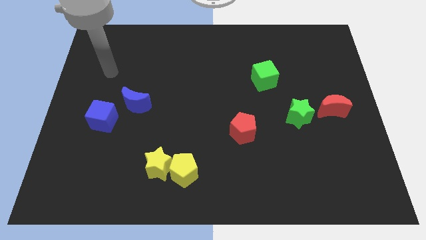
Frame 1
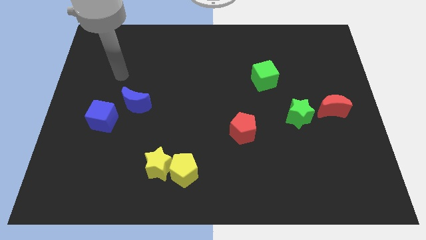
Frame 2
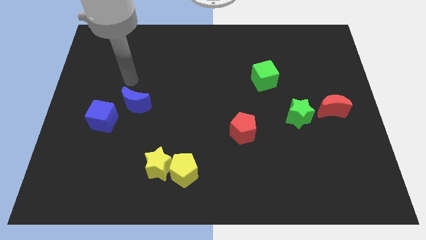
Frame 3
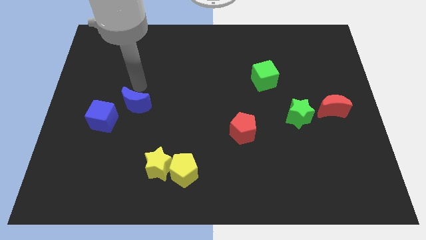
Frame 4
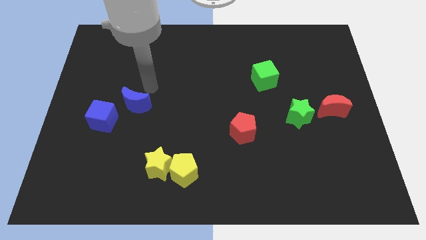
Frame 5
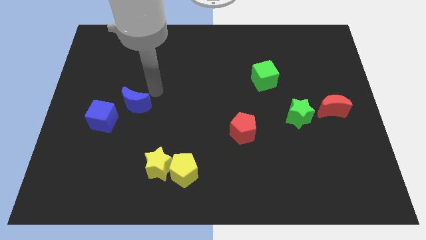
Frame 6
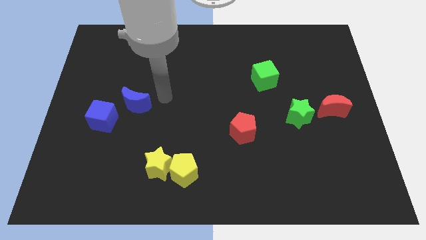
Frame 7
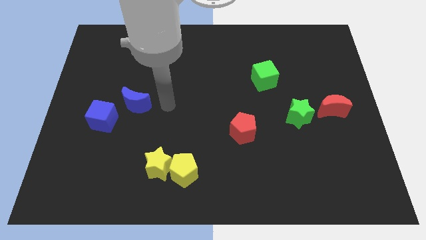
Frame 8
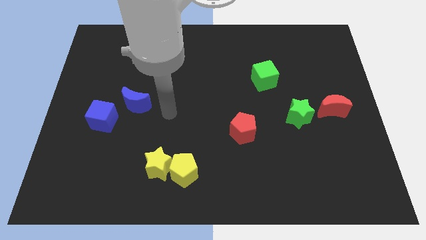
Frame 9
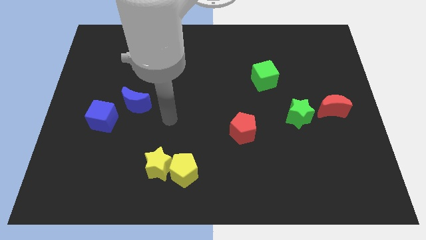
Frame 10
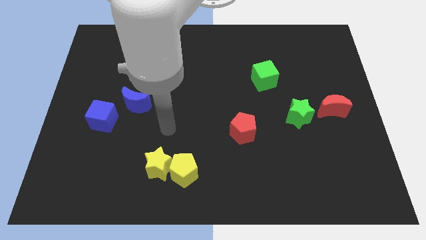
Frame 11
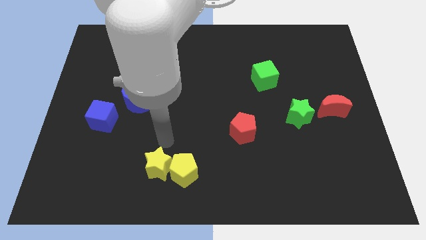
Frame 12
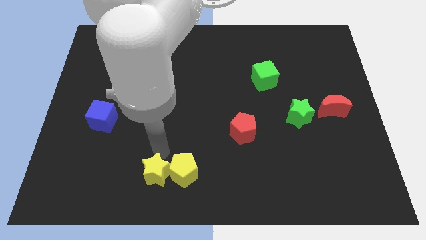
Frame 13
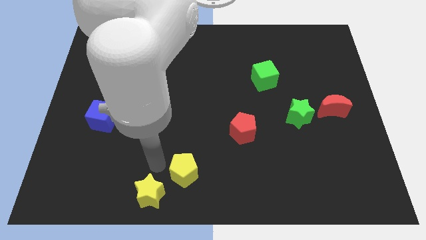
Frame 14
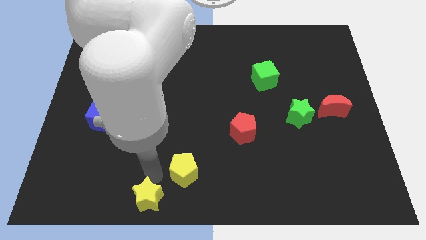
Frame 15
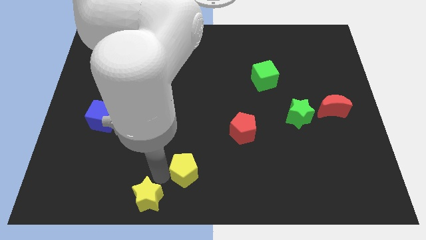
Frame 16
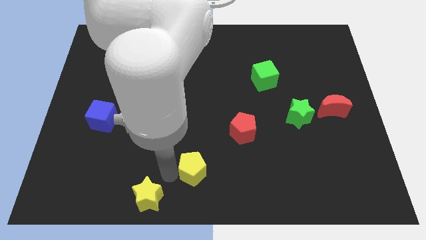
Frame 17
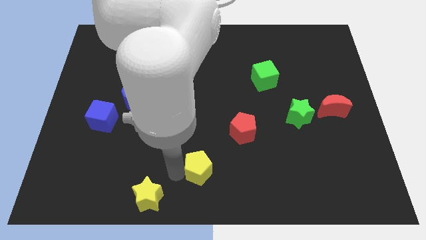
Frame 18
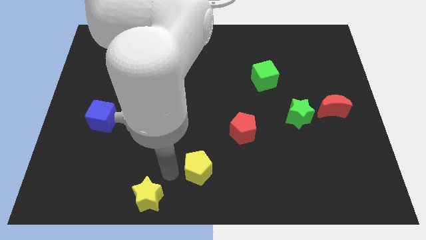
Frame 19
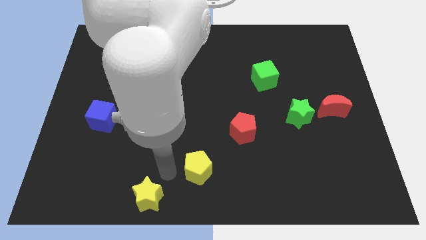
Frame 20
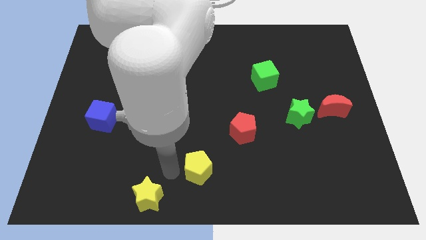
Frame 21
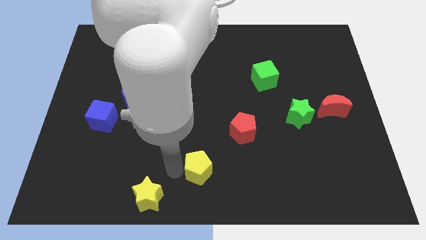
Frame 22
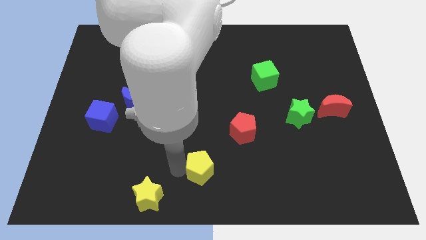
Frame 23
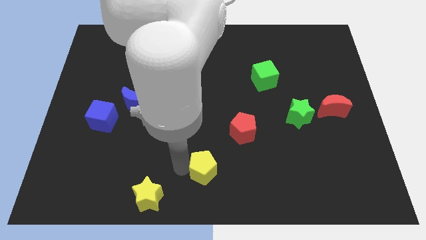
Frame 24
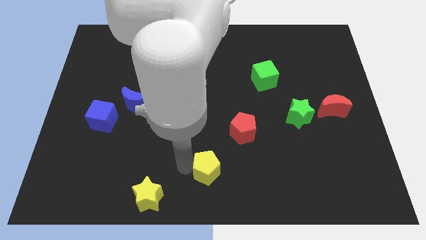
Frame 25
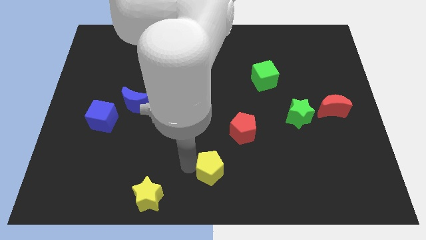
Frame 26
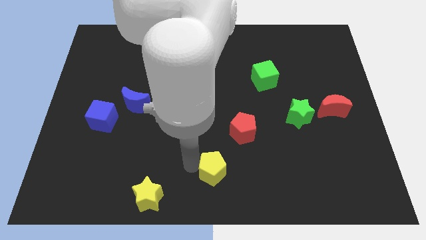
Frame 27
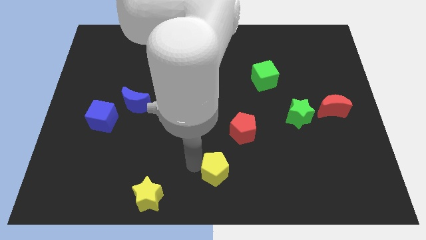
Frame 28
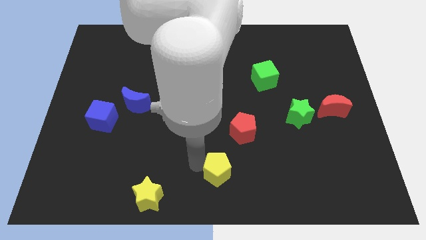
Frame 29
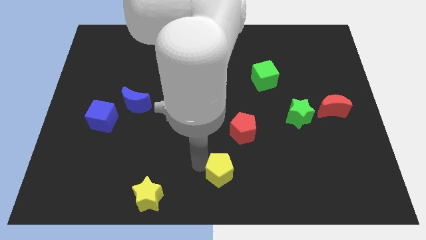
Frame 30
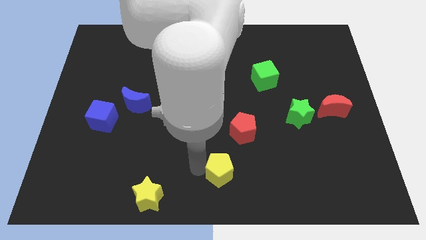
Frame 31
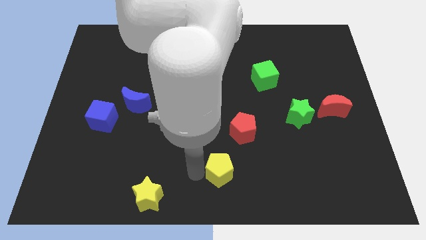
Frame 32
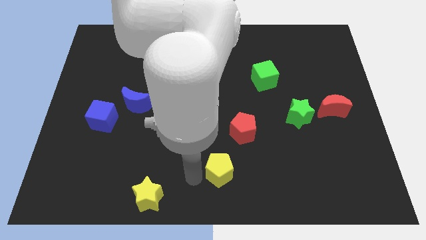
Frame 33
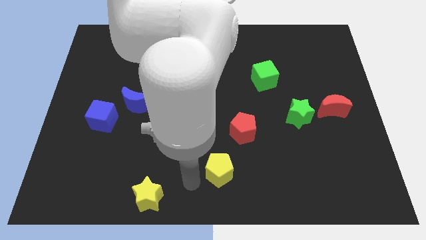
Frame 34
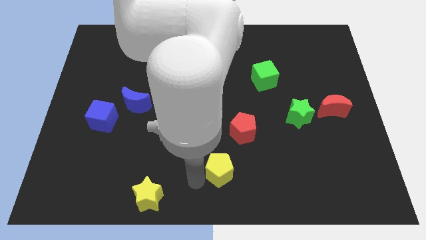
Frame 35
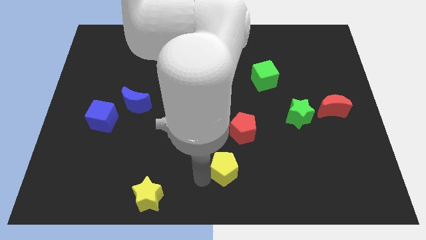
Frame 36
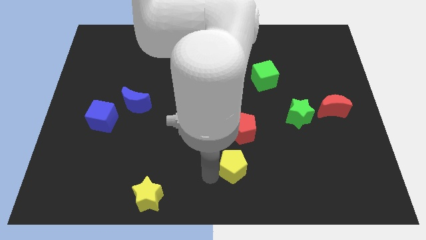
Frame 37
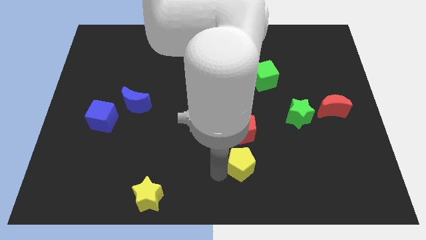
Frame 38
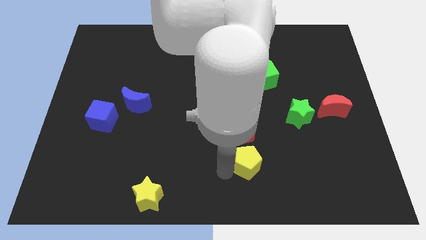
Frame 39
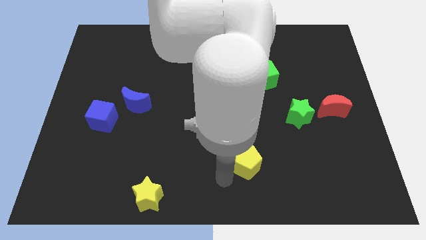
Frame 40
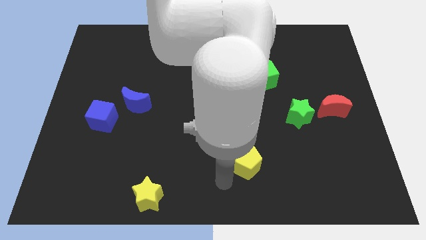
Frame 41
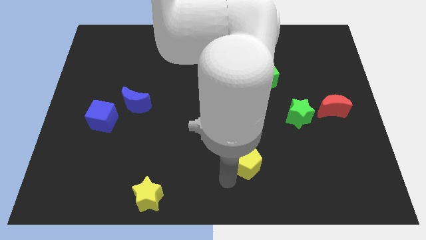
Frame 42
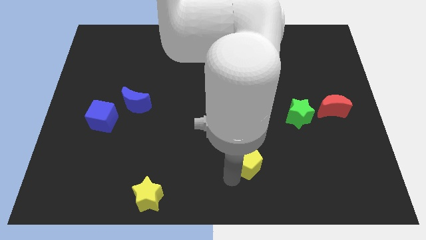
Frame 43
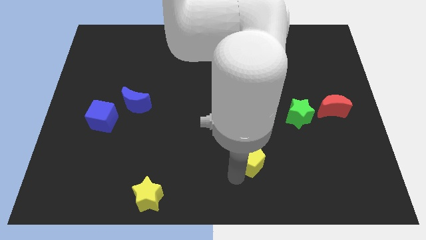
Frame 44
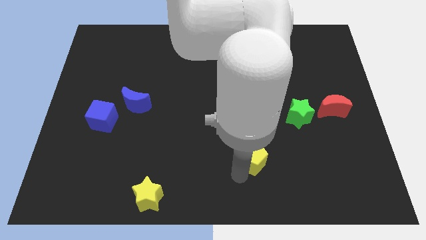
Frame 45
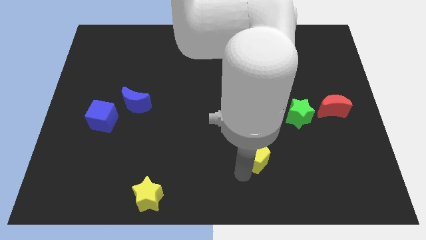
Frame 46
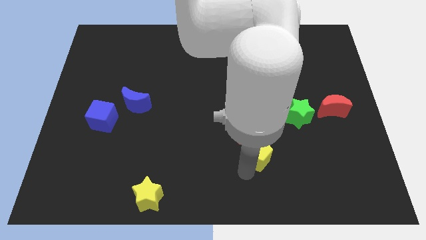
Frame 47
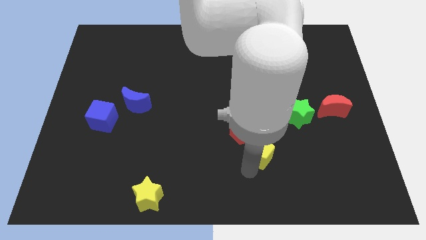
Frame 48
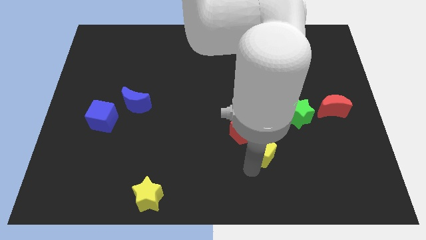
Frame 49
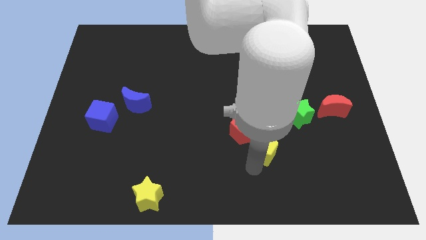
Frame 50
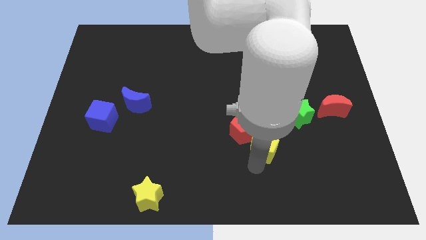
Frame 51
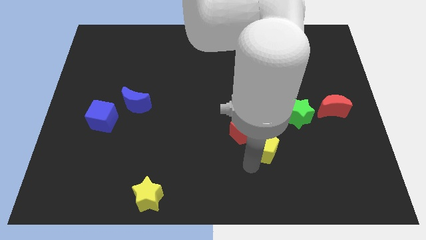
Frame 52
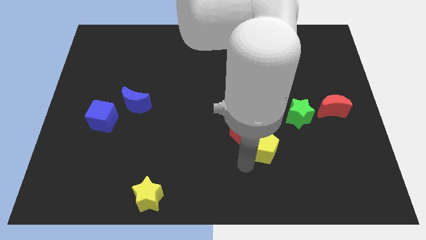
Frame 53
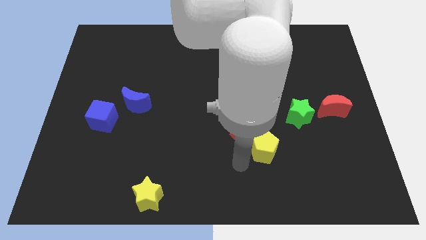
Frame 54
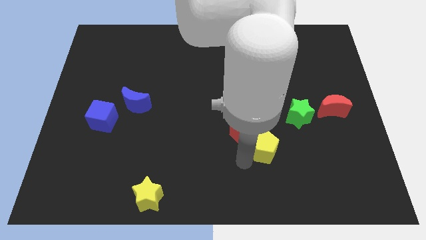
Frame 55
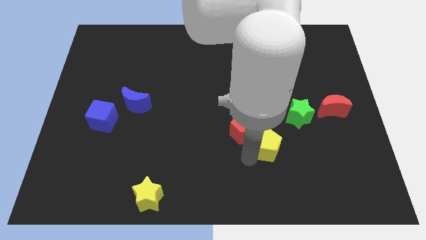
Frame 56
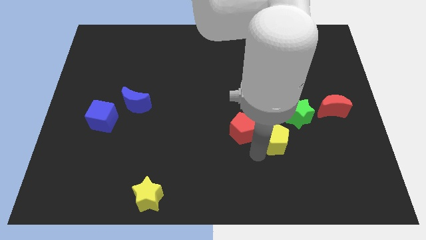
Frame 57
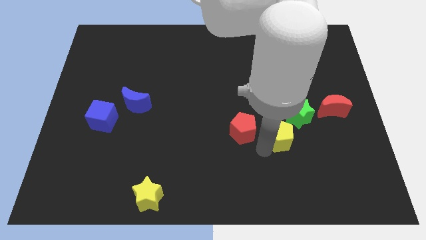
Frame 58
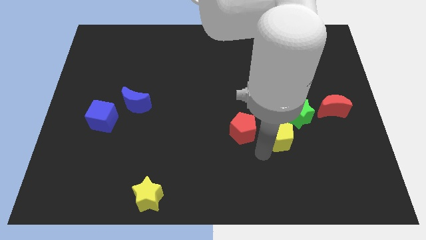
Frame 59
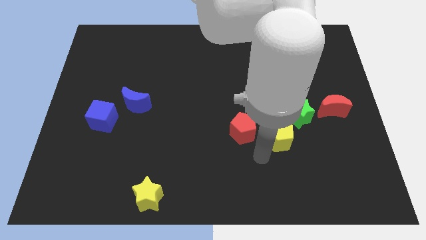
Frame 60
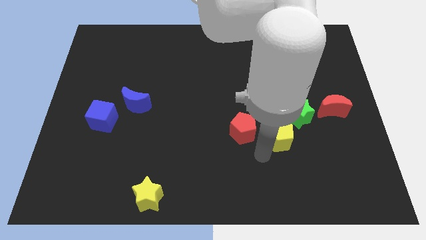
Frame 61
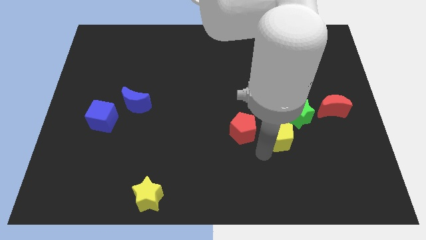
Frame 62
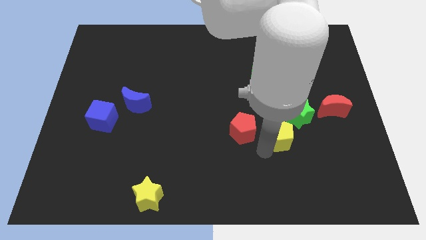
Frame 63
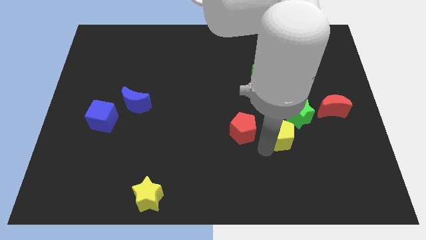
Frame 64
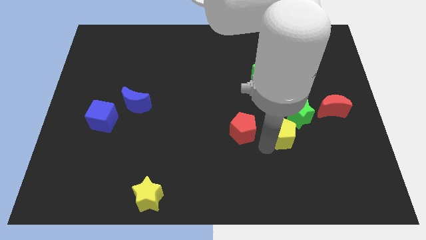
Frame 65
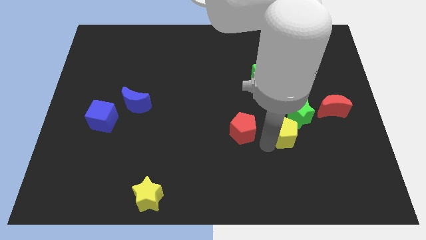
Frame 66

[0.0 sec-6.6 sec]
slide the yellow pentagon close to the green star

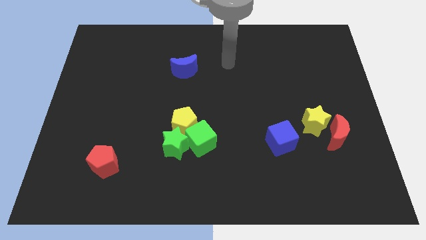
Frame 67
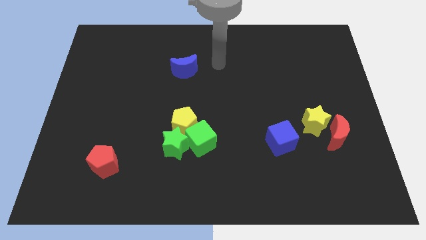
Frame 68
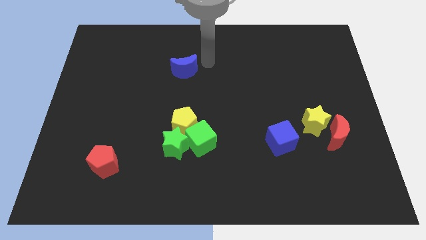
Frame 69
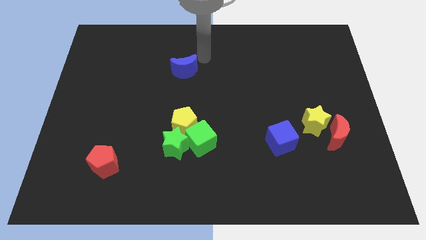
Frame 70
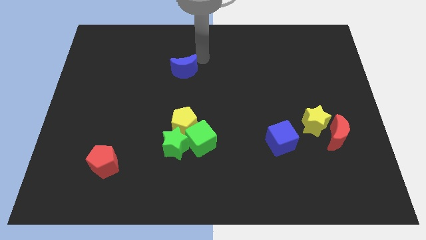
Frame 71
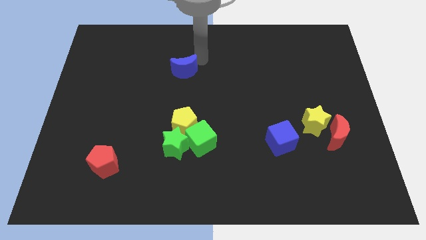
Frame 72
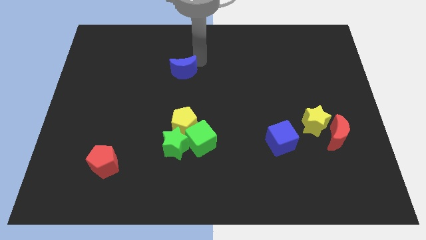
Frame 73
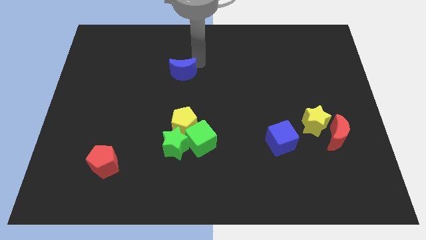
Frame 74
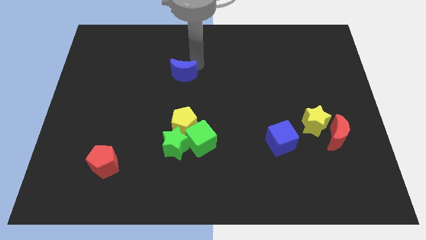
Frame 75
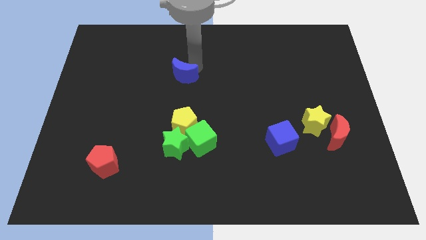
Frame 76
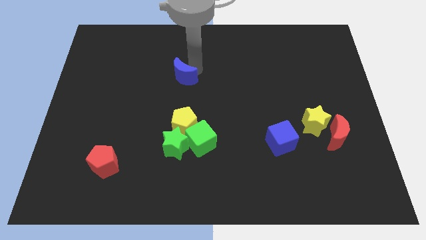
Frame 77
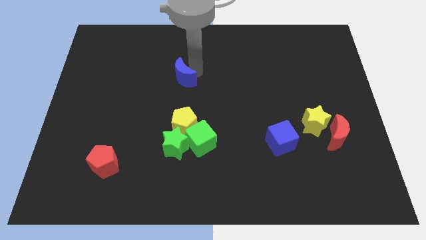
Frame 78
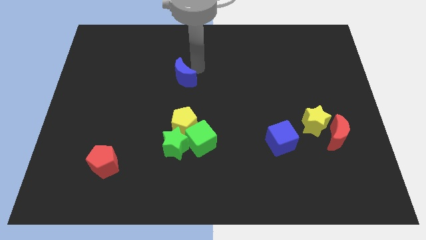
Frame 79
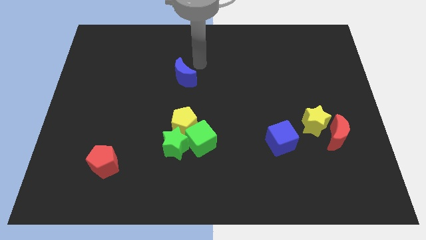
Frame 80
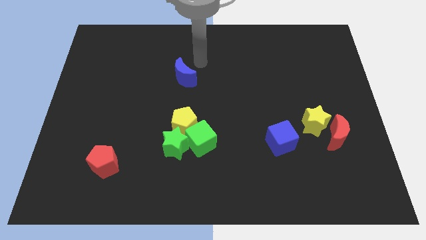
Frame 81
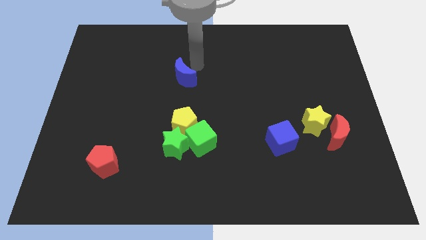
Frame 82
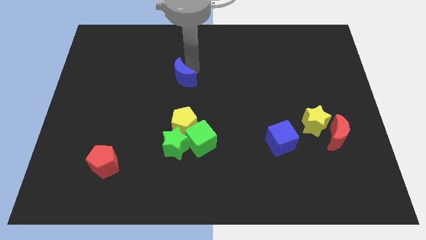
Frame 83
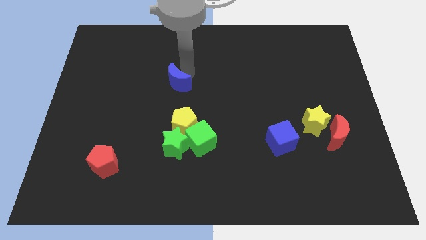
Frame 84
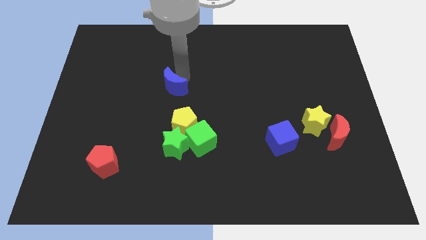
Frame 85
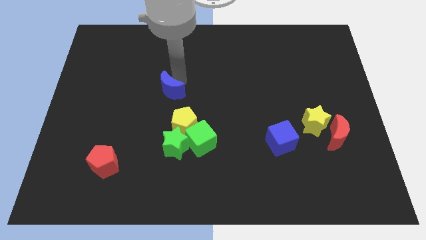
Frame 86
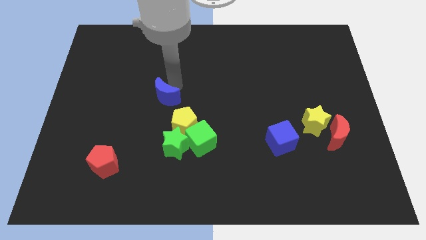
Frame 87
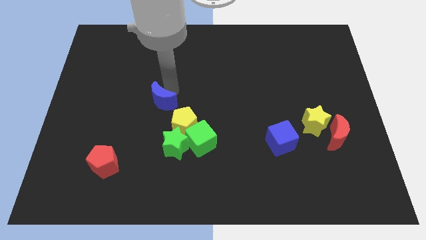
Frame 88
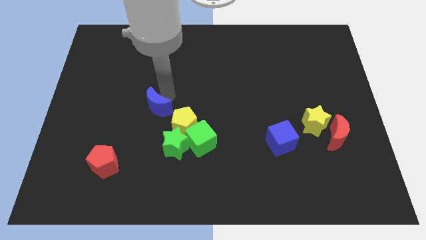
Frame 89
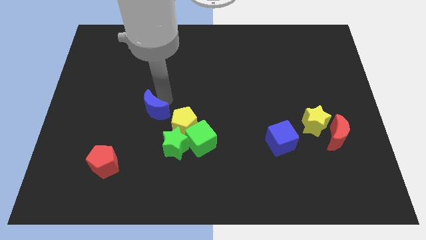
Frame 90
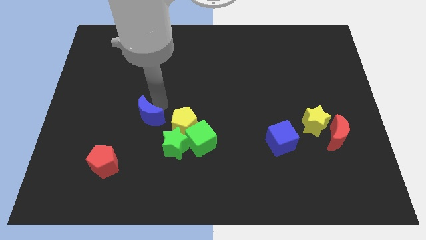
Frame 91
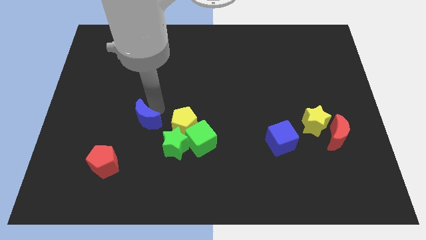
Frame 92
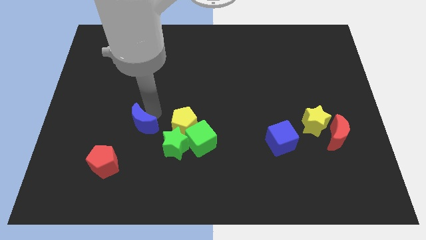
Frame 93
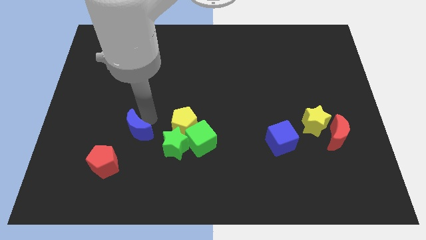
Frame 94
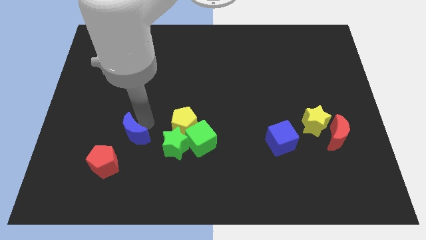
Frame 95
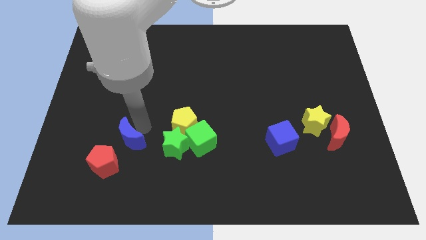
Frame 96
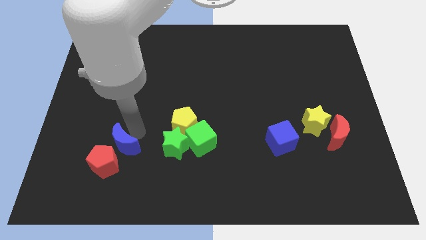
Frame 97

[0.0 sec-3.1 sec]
put the blue moon close to the red pentagon
